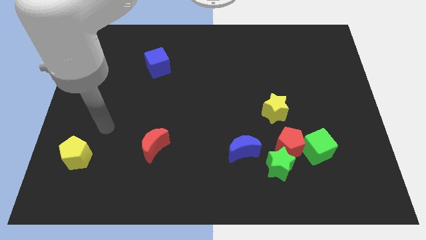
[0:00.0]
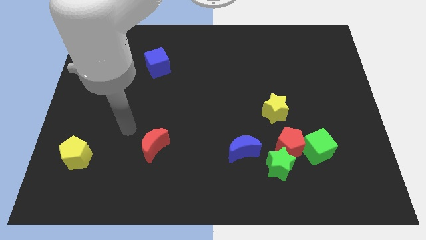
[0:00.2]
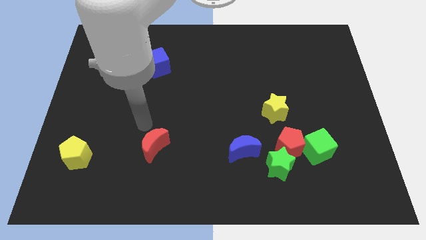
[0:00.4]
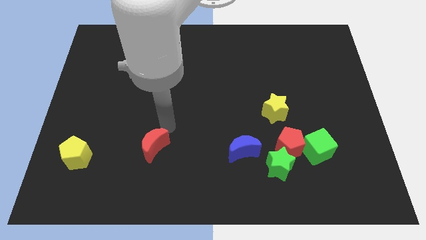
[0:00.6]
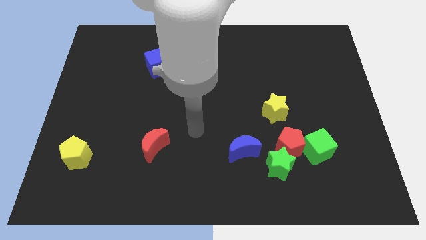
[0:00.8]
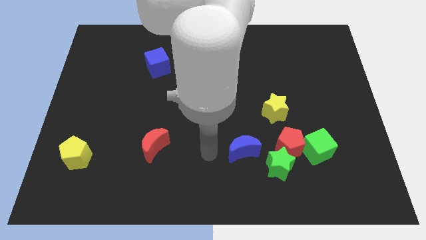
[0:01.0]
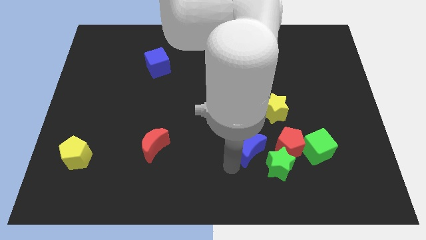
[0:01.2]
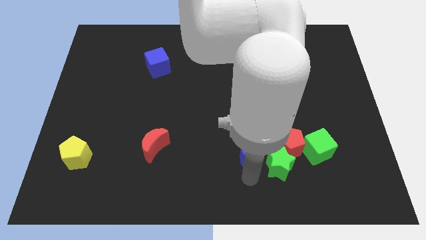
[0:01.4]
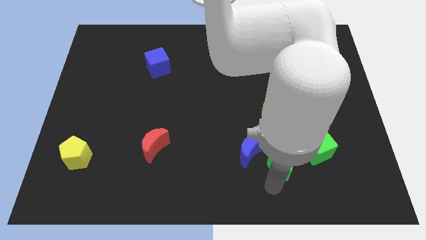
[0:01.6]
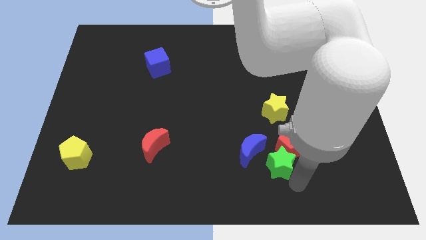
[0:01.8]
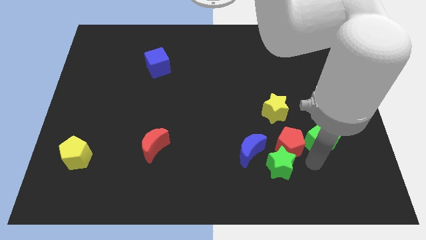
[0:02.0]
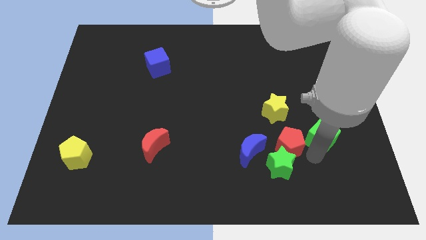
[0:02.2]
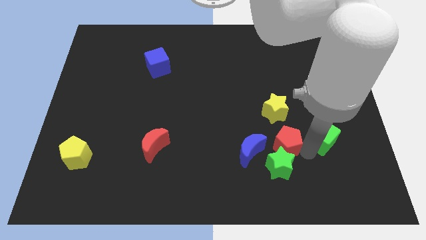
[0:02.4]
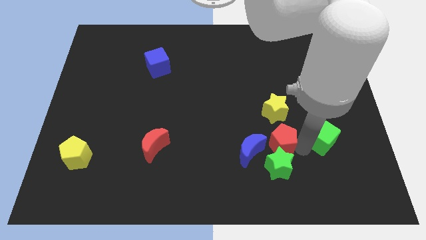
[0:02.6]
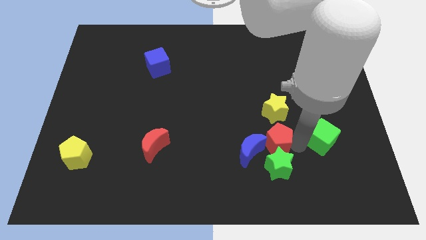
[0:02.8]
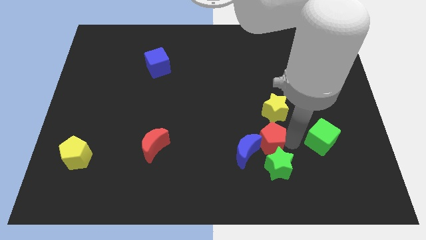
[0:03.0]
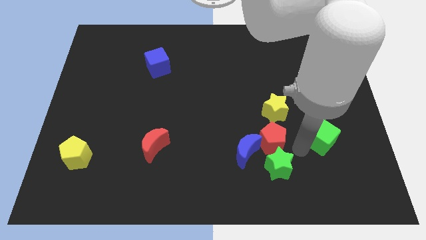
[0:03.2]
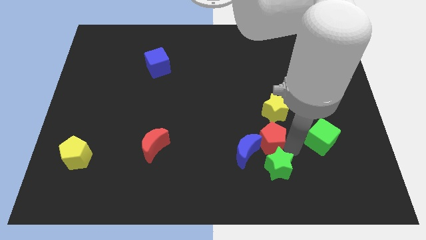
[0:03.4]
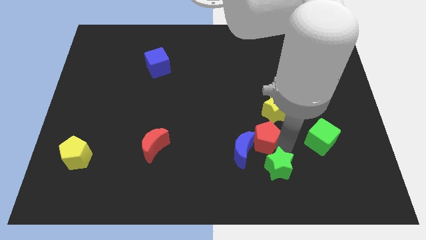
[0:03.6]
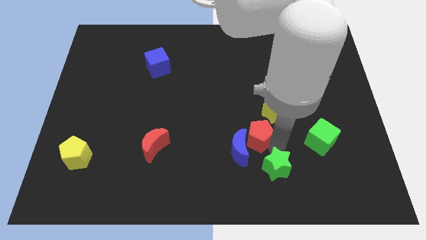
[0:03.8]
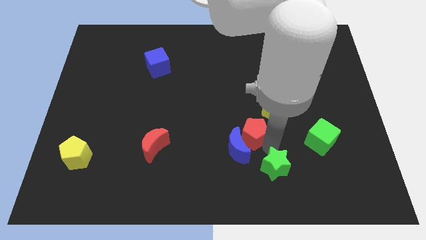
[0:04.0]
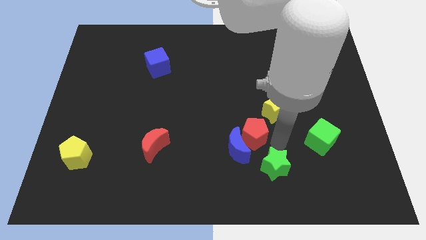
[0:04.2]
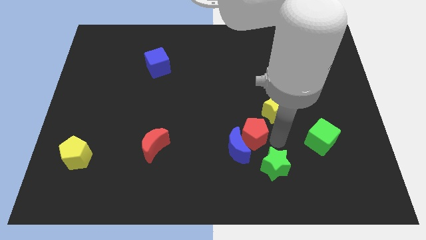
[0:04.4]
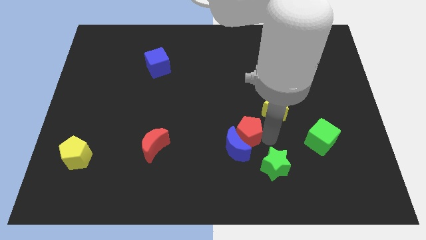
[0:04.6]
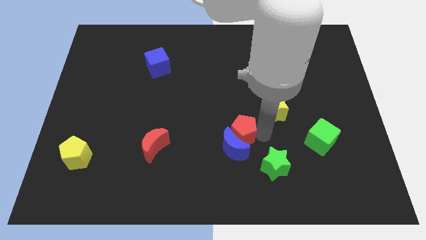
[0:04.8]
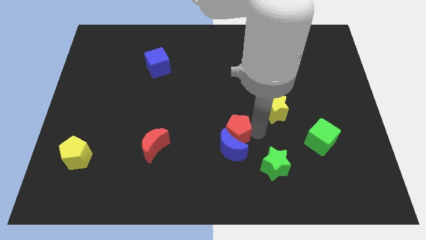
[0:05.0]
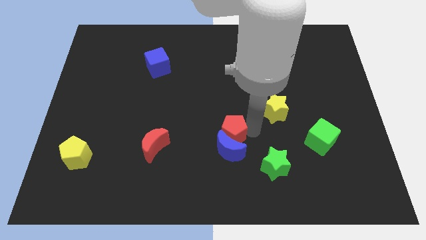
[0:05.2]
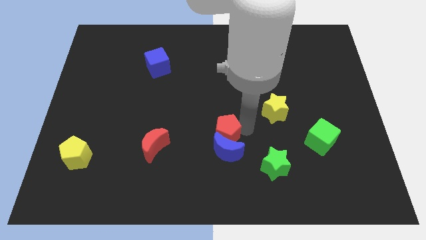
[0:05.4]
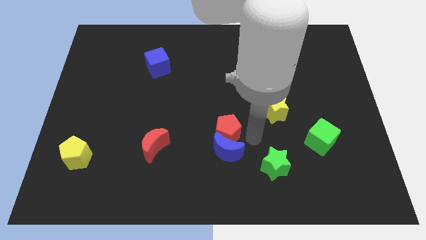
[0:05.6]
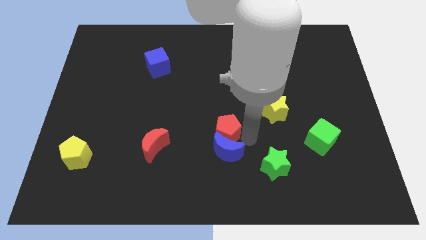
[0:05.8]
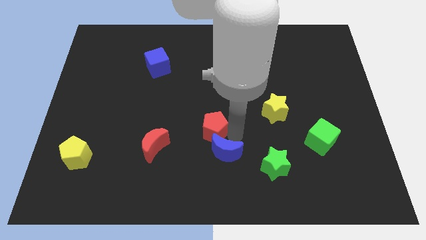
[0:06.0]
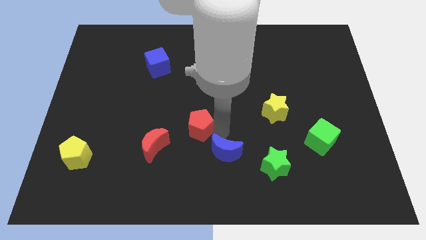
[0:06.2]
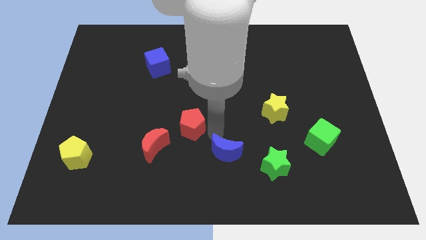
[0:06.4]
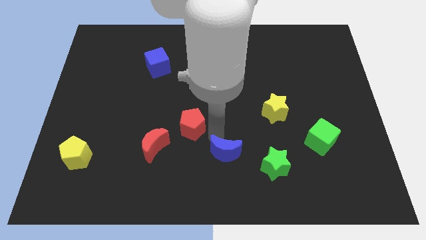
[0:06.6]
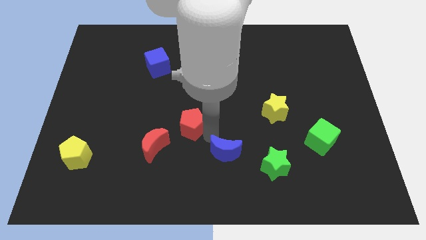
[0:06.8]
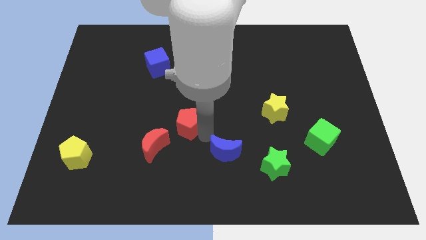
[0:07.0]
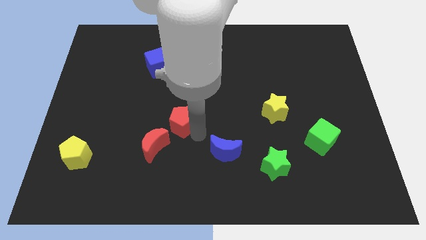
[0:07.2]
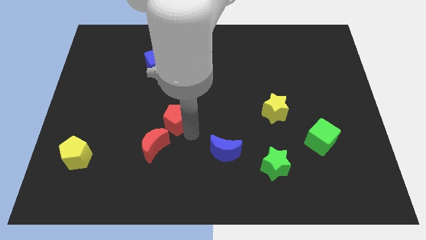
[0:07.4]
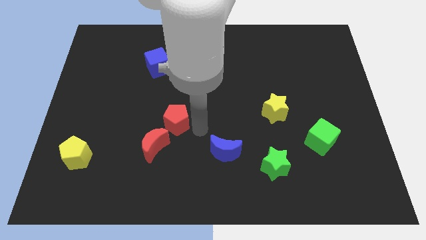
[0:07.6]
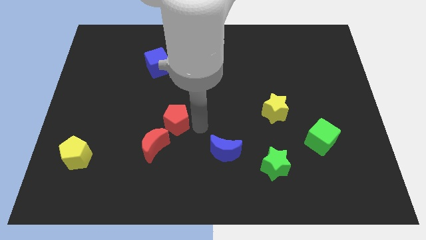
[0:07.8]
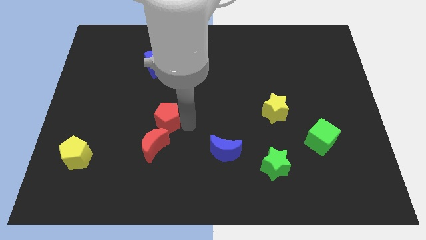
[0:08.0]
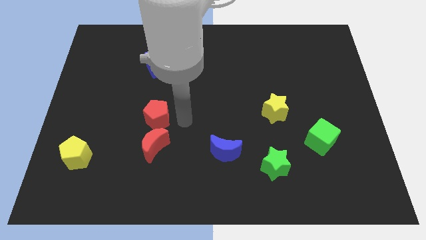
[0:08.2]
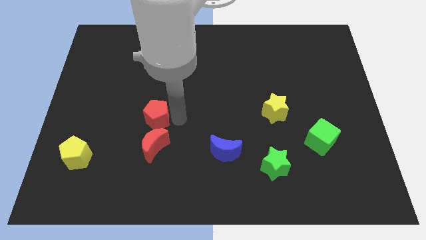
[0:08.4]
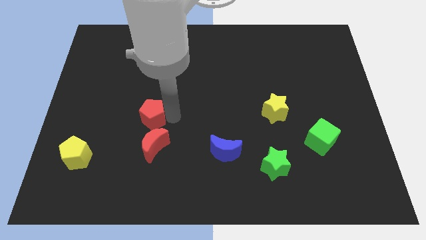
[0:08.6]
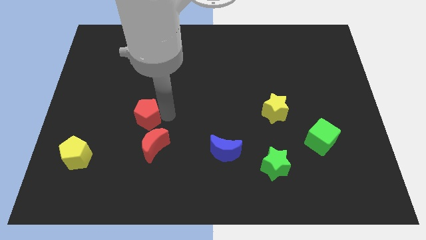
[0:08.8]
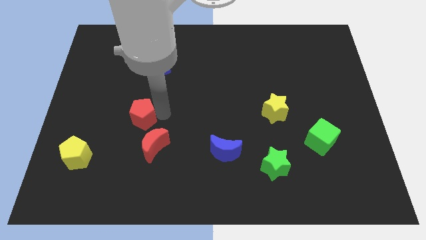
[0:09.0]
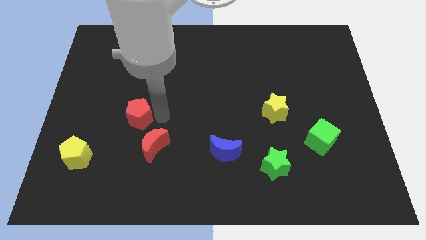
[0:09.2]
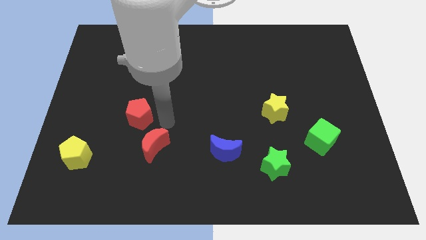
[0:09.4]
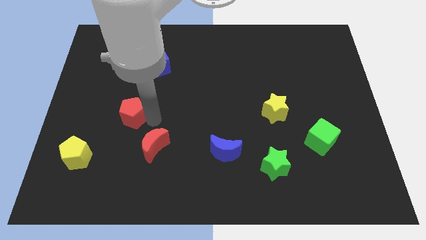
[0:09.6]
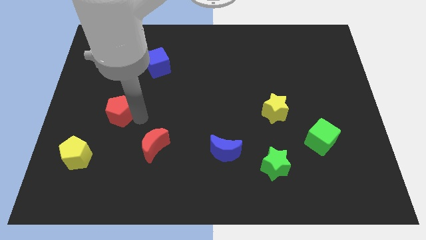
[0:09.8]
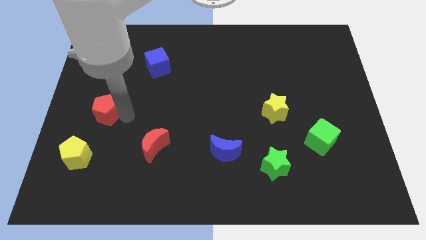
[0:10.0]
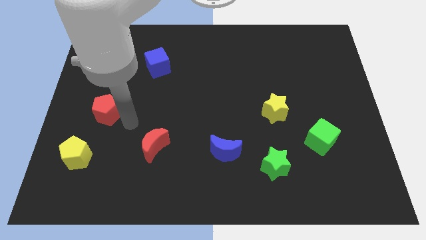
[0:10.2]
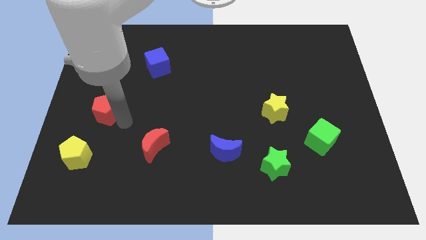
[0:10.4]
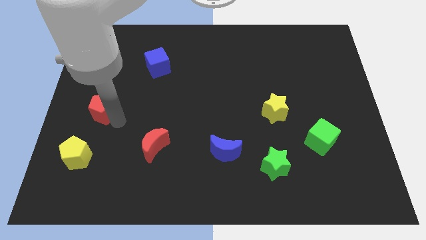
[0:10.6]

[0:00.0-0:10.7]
push the red pentagon to the left side of the board

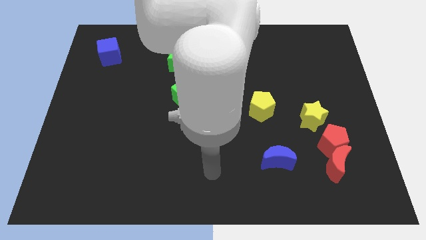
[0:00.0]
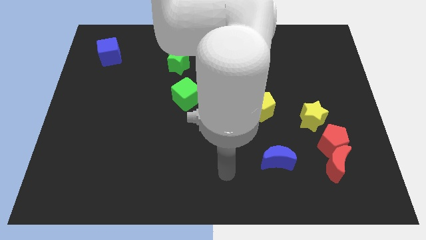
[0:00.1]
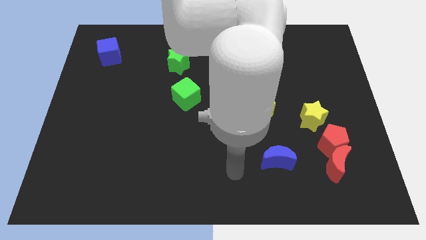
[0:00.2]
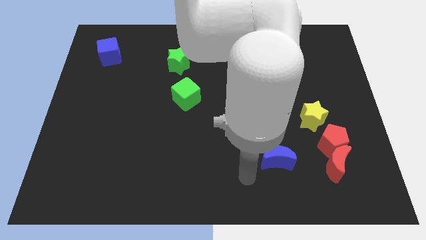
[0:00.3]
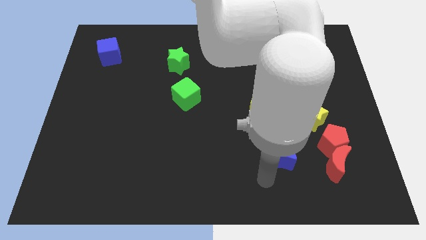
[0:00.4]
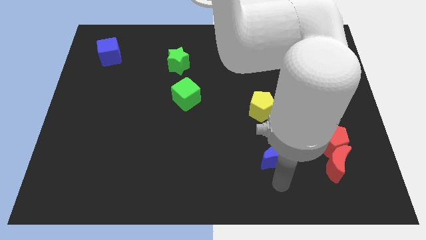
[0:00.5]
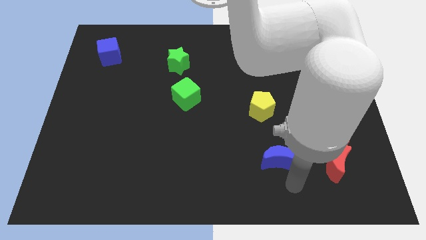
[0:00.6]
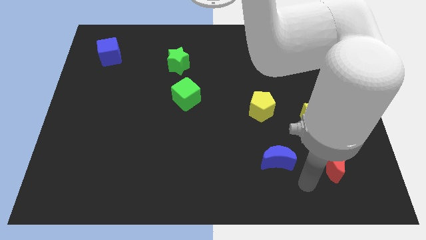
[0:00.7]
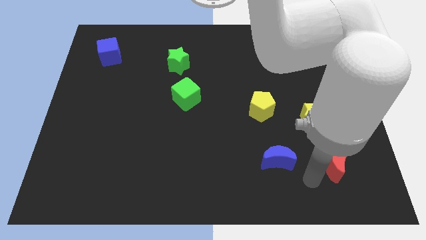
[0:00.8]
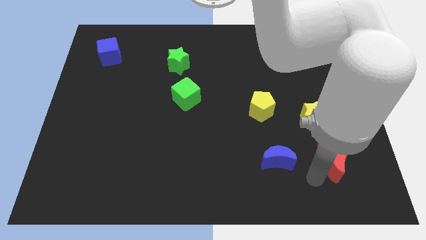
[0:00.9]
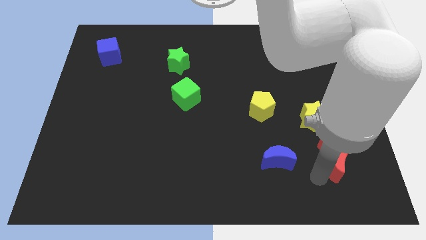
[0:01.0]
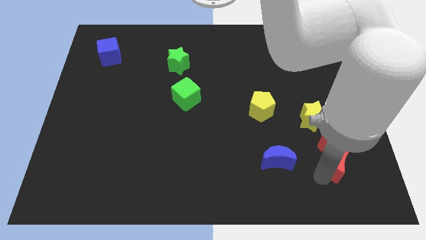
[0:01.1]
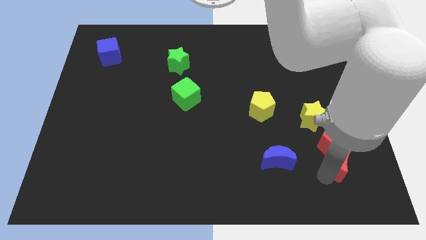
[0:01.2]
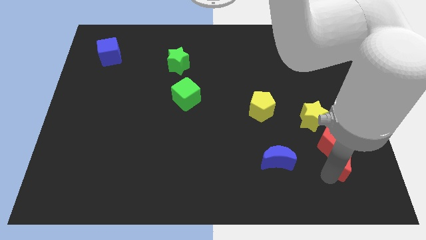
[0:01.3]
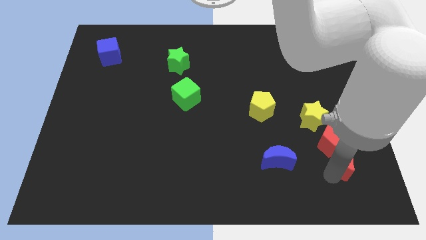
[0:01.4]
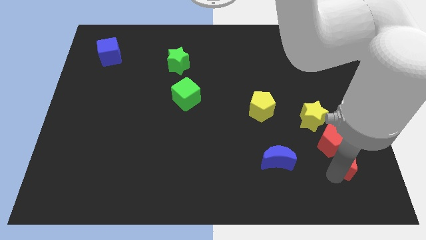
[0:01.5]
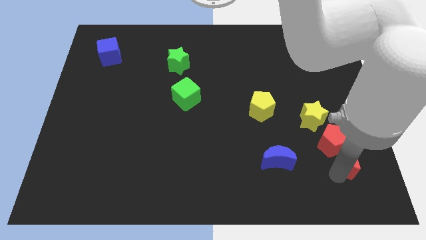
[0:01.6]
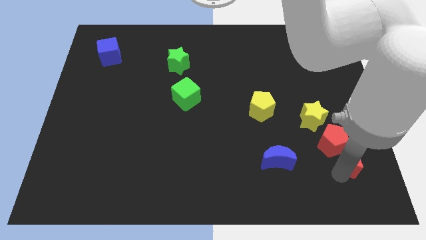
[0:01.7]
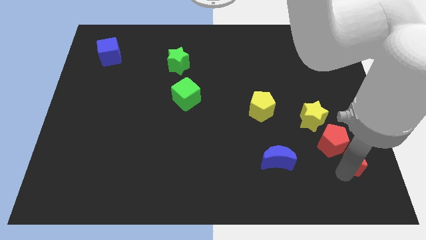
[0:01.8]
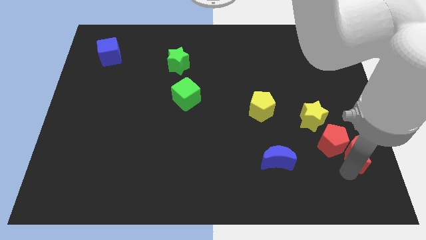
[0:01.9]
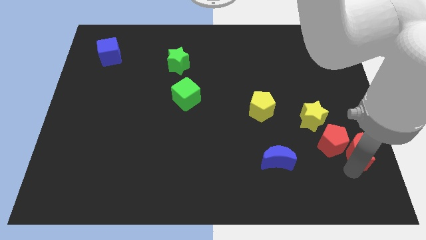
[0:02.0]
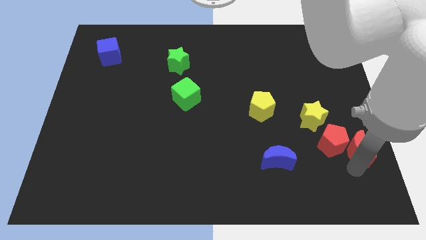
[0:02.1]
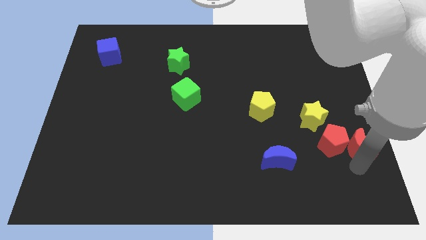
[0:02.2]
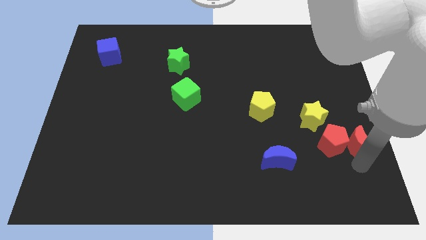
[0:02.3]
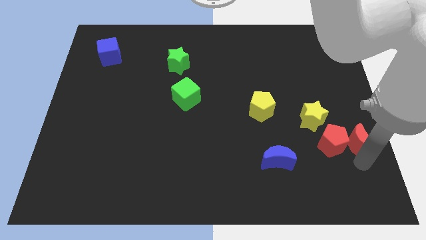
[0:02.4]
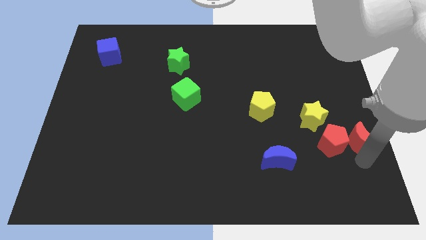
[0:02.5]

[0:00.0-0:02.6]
slide the red moon to the center right
